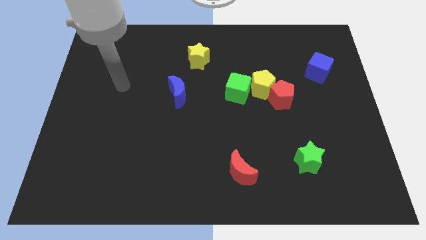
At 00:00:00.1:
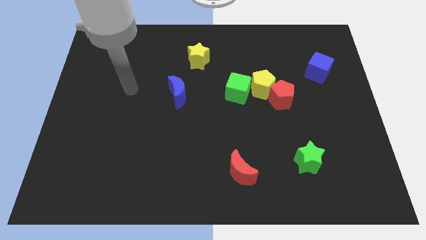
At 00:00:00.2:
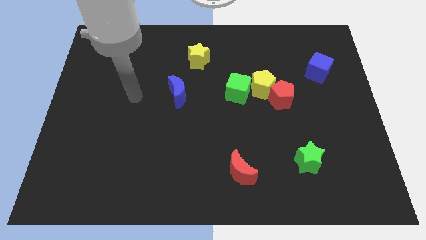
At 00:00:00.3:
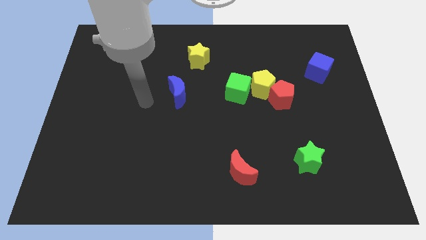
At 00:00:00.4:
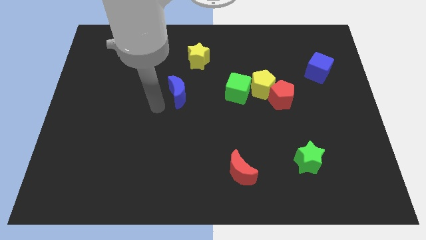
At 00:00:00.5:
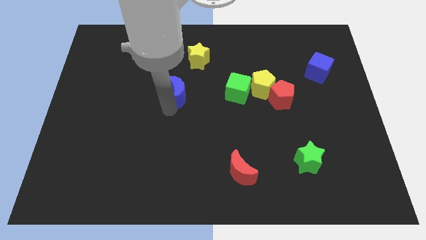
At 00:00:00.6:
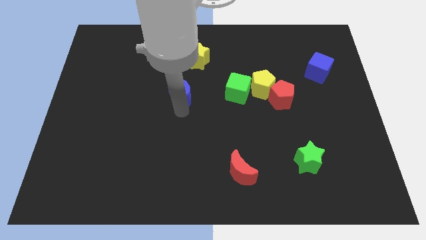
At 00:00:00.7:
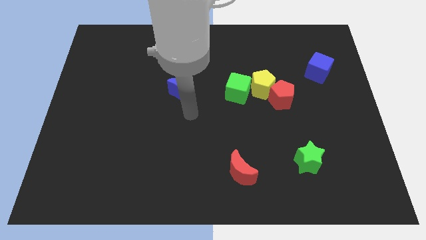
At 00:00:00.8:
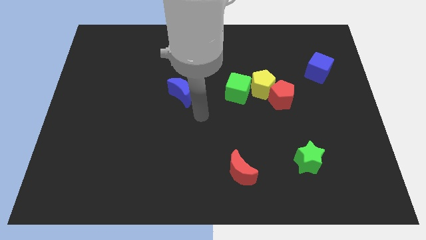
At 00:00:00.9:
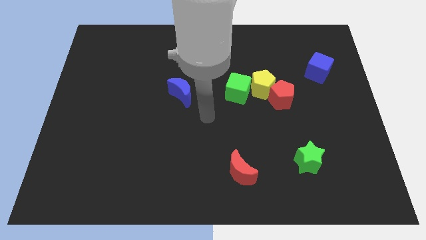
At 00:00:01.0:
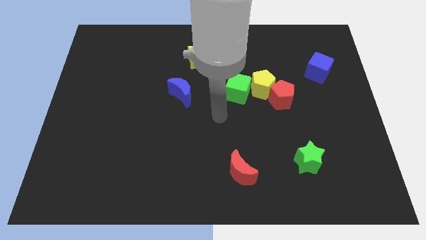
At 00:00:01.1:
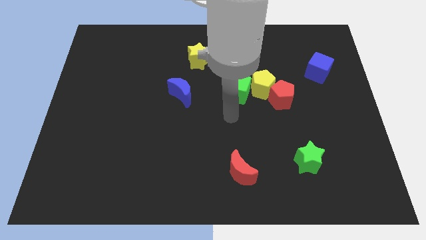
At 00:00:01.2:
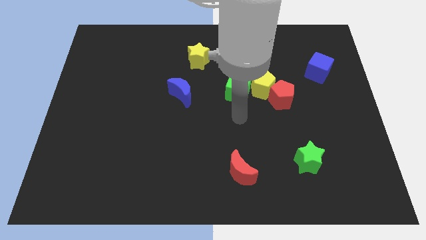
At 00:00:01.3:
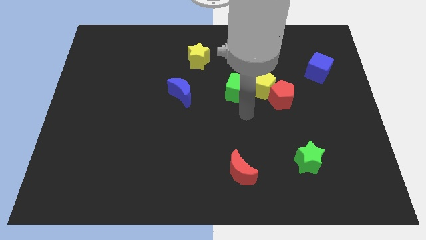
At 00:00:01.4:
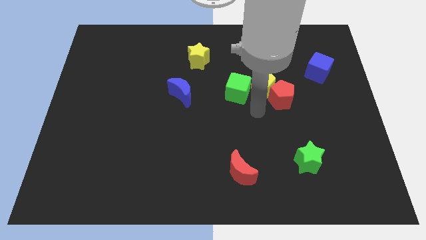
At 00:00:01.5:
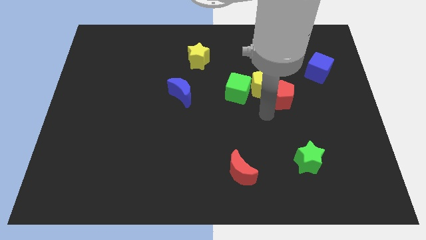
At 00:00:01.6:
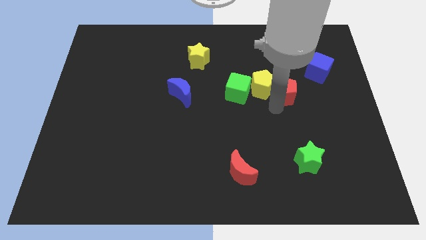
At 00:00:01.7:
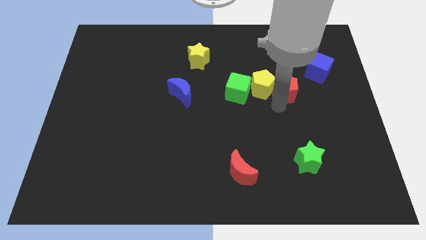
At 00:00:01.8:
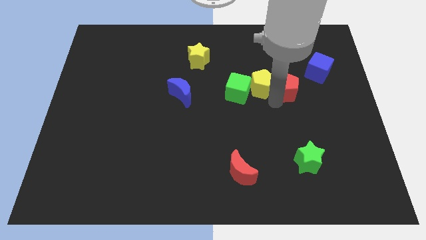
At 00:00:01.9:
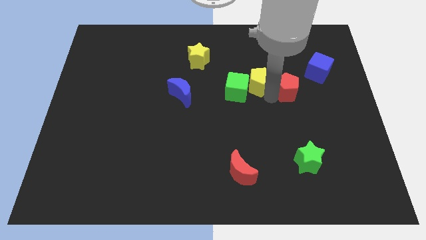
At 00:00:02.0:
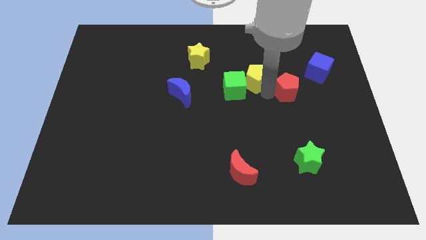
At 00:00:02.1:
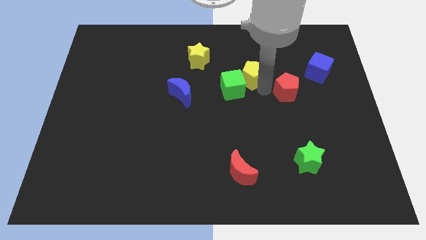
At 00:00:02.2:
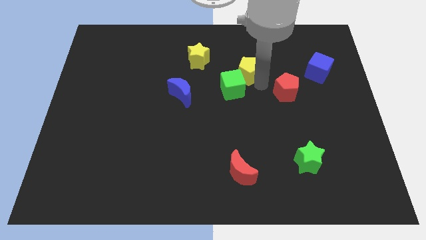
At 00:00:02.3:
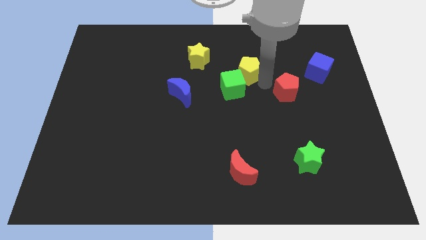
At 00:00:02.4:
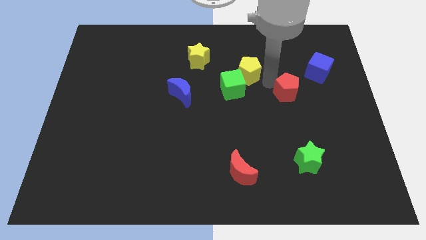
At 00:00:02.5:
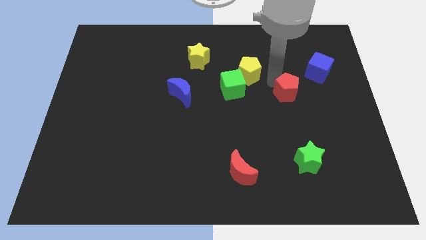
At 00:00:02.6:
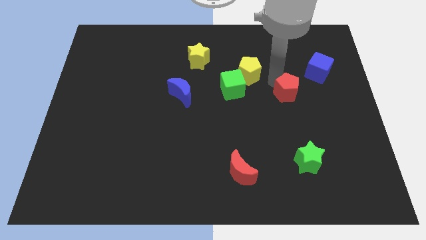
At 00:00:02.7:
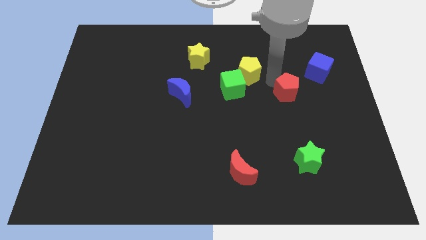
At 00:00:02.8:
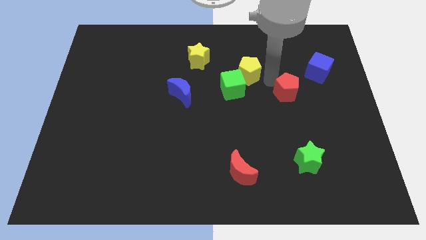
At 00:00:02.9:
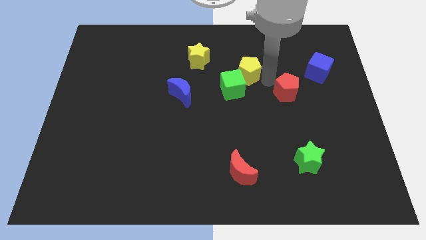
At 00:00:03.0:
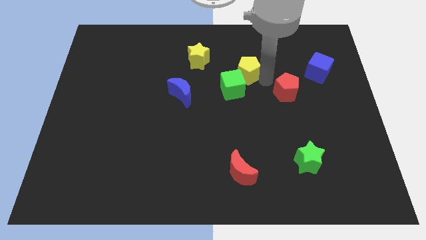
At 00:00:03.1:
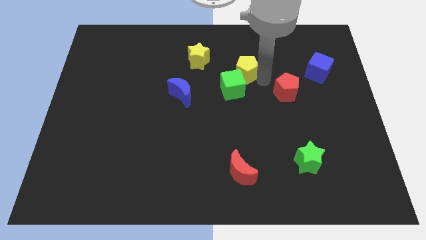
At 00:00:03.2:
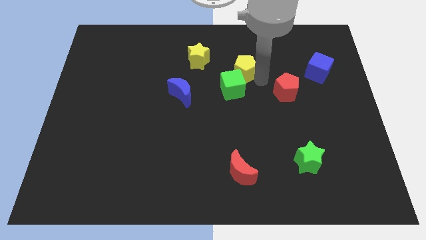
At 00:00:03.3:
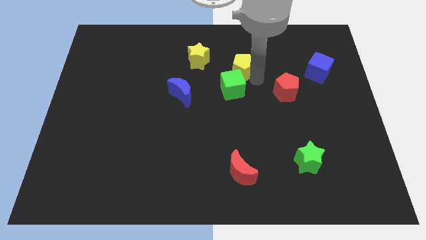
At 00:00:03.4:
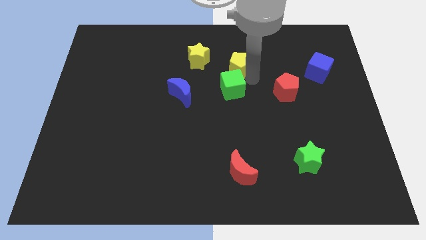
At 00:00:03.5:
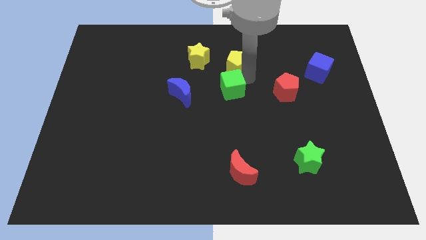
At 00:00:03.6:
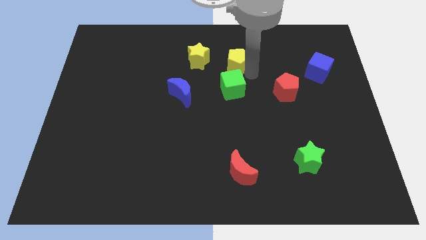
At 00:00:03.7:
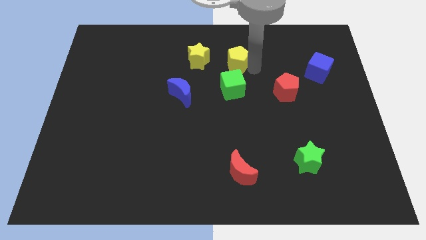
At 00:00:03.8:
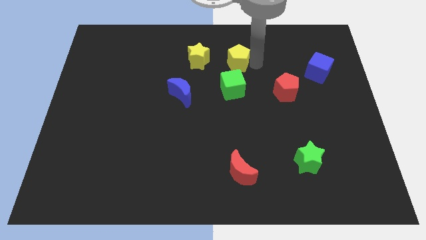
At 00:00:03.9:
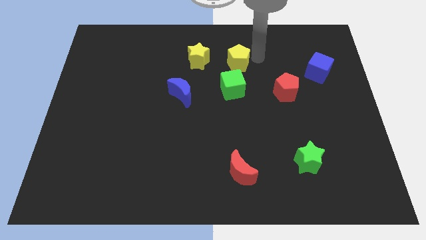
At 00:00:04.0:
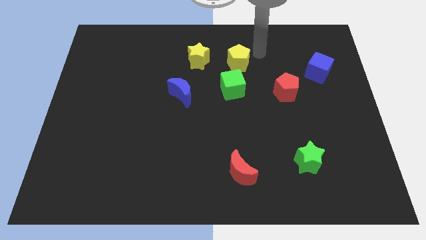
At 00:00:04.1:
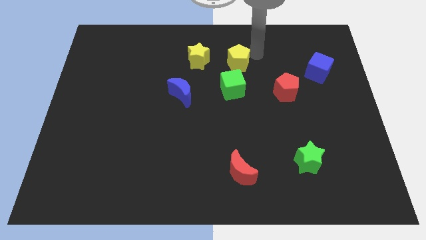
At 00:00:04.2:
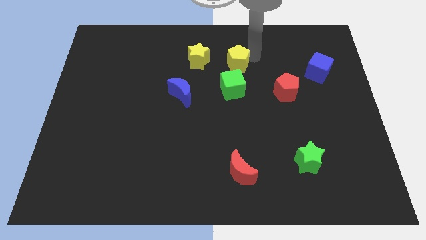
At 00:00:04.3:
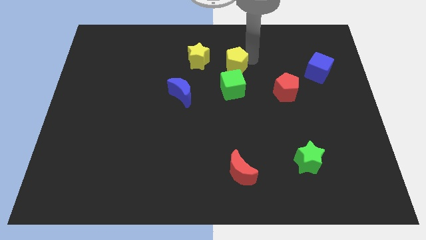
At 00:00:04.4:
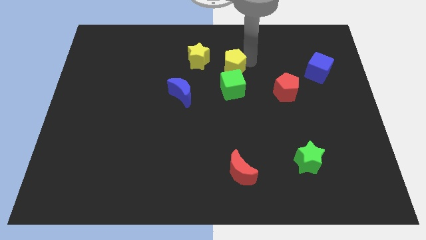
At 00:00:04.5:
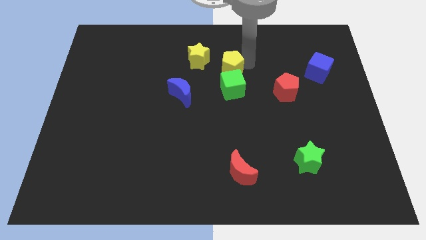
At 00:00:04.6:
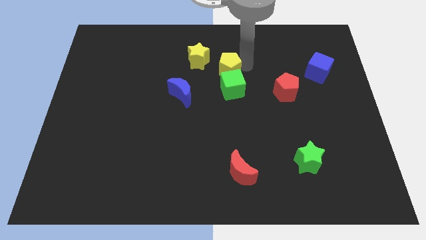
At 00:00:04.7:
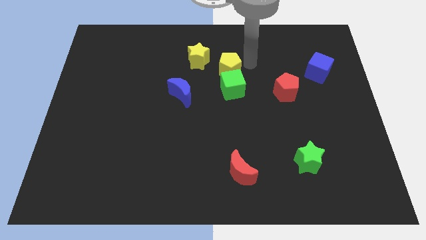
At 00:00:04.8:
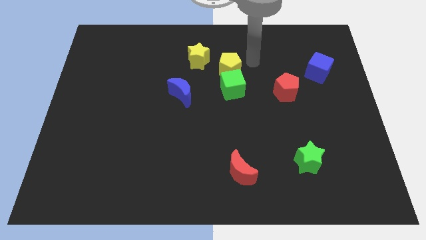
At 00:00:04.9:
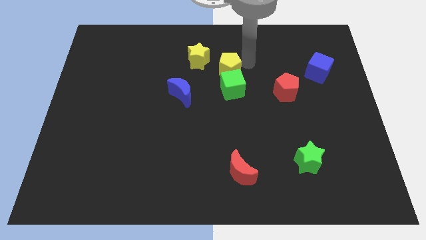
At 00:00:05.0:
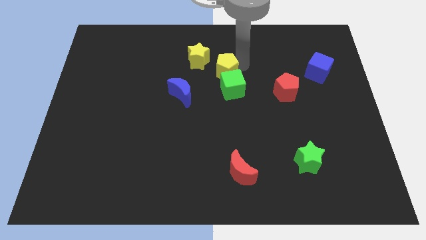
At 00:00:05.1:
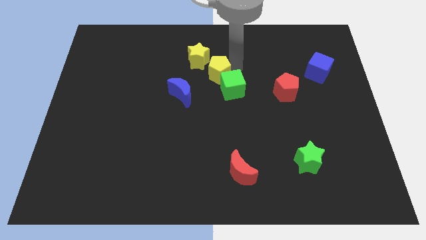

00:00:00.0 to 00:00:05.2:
move the yellow pentagon diagonally up and to the right of the blue moon

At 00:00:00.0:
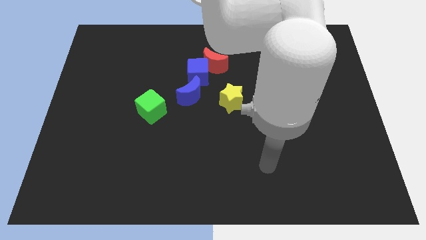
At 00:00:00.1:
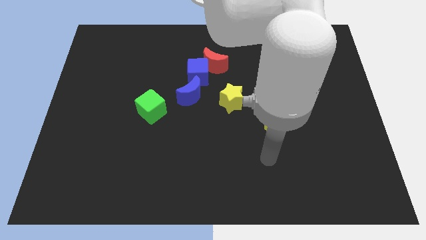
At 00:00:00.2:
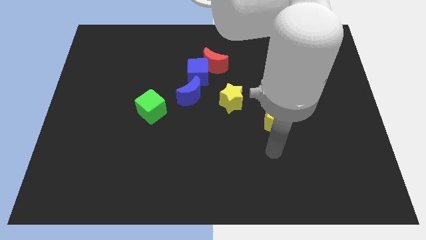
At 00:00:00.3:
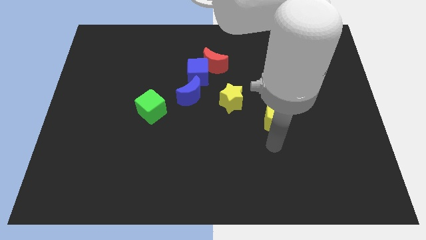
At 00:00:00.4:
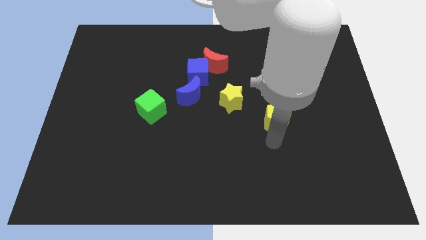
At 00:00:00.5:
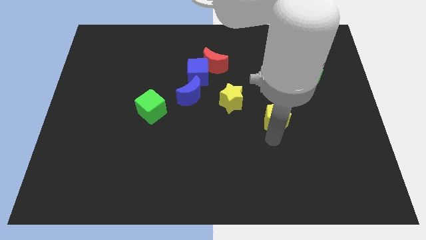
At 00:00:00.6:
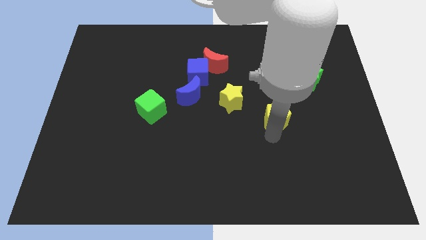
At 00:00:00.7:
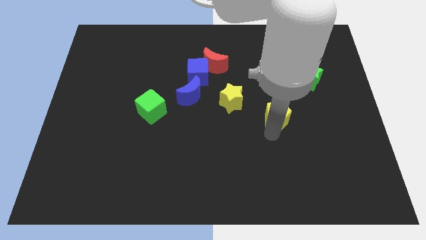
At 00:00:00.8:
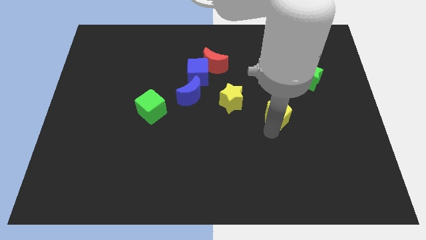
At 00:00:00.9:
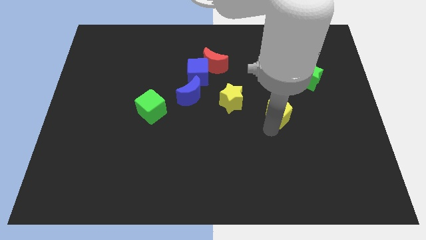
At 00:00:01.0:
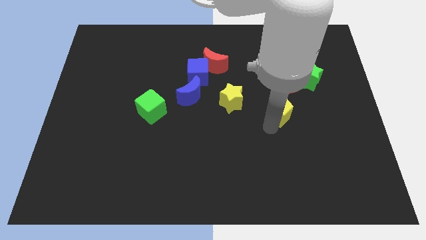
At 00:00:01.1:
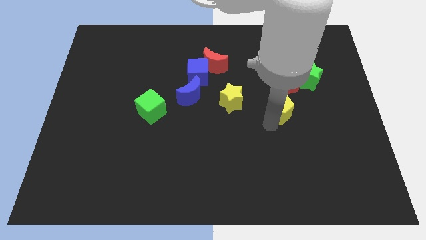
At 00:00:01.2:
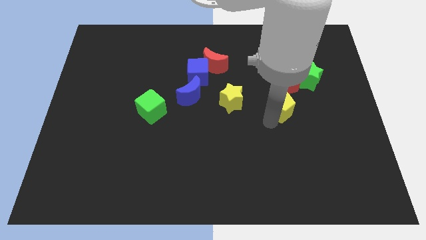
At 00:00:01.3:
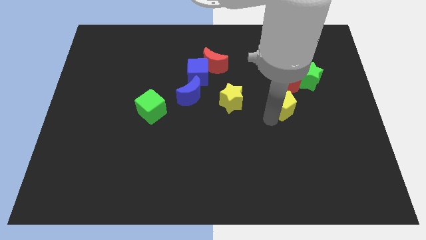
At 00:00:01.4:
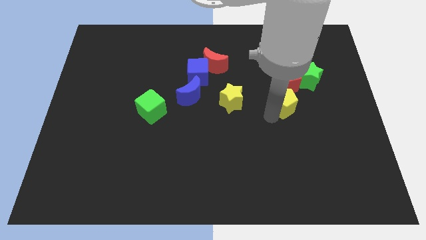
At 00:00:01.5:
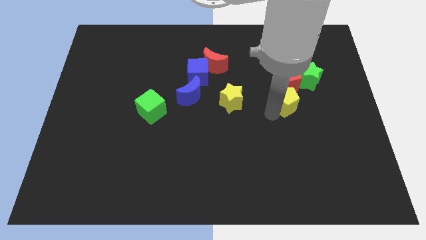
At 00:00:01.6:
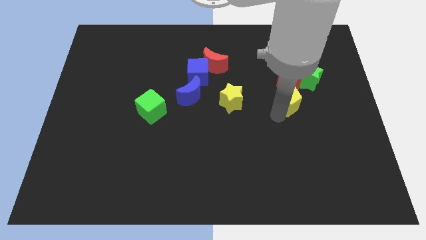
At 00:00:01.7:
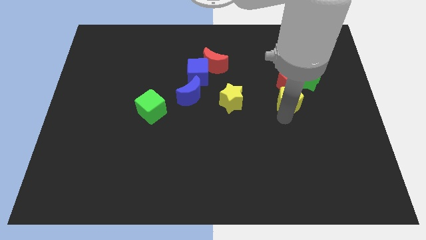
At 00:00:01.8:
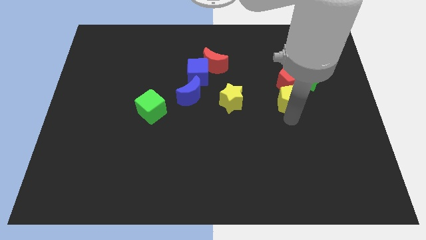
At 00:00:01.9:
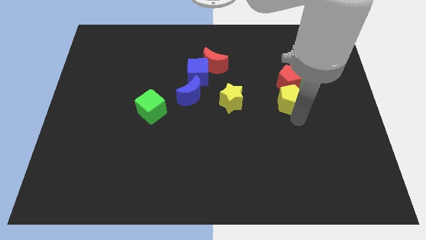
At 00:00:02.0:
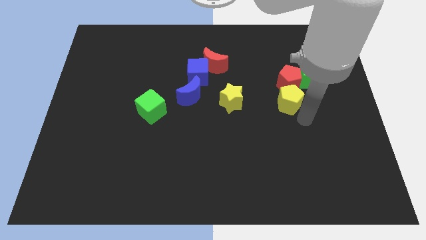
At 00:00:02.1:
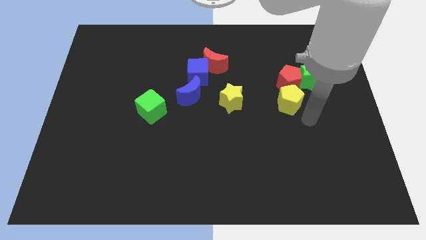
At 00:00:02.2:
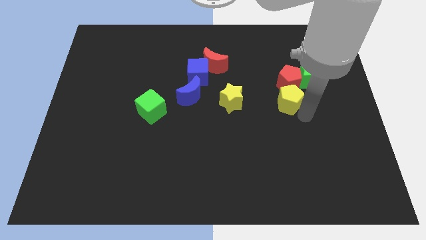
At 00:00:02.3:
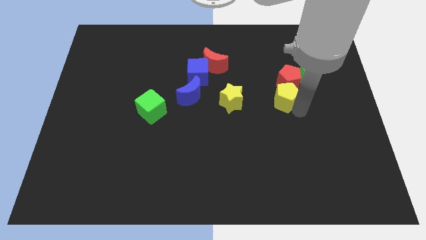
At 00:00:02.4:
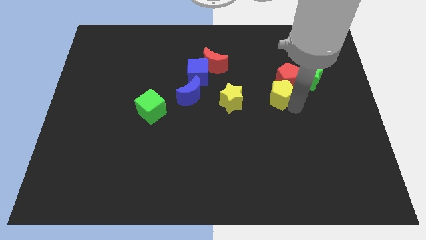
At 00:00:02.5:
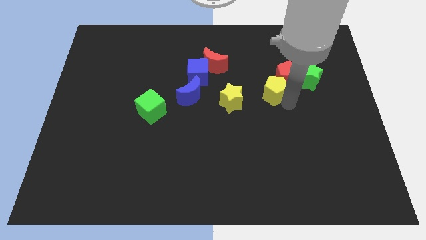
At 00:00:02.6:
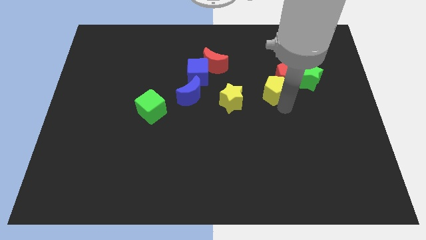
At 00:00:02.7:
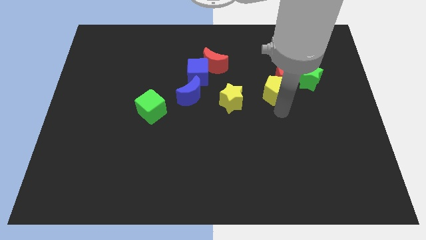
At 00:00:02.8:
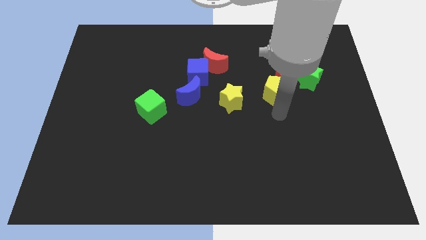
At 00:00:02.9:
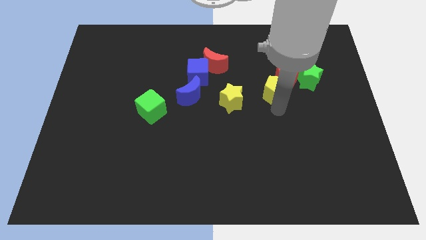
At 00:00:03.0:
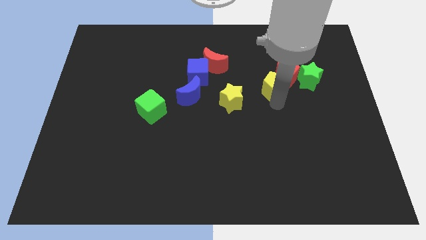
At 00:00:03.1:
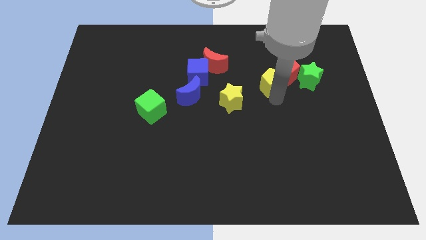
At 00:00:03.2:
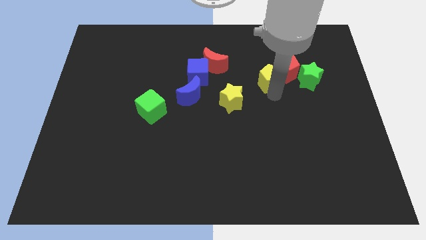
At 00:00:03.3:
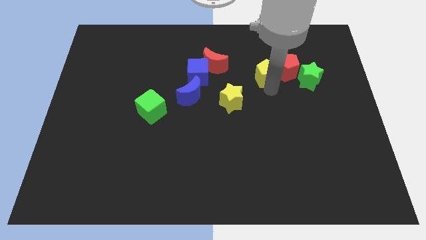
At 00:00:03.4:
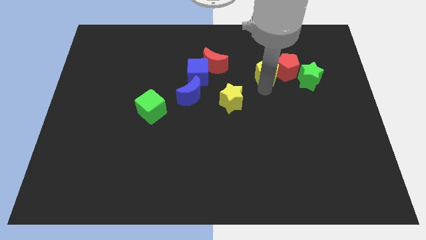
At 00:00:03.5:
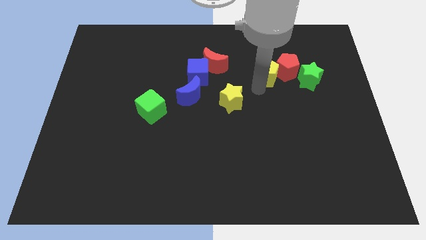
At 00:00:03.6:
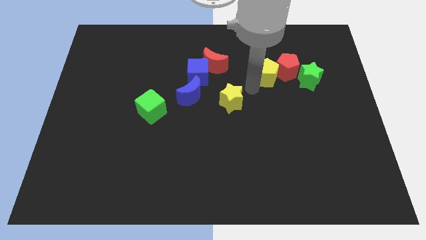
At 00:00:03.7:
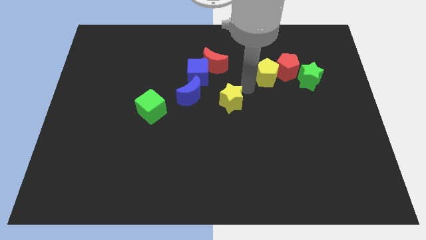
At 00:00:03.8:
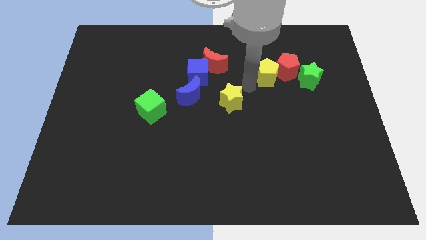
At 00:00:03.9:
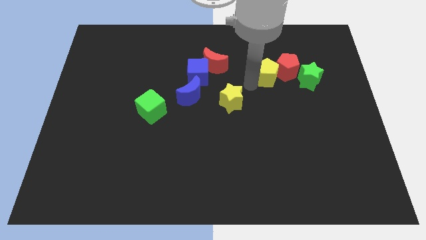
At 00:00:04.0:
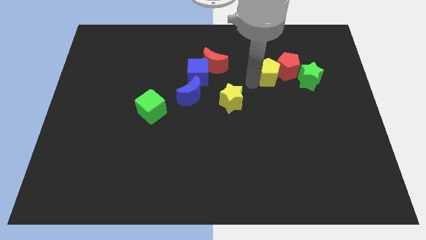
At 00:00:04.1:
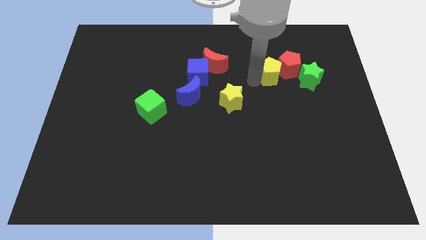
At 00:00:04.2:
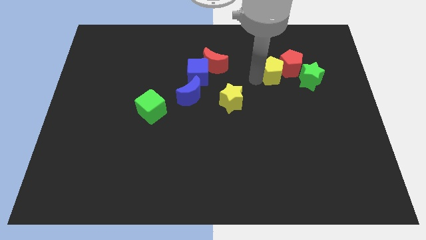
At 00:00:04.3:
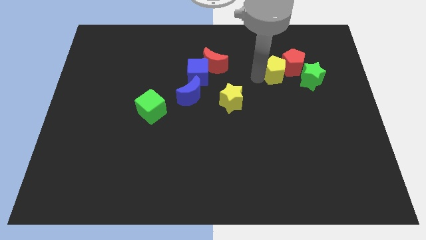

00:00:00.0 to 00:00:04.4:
slide the yellow pentagon diagonally up and to the left of the green star
